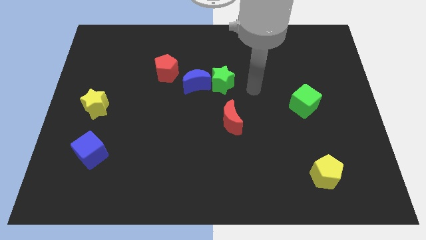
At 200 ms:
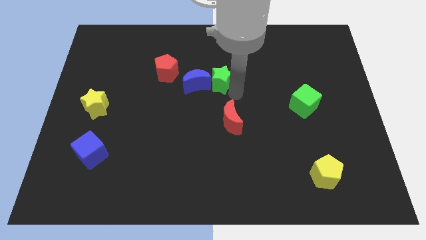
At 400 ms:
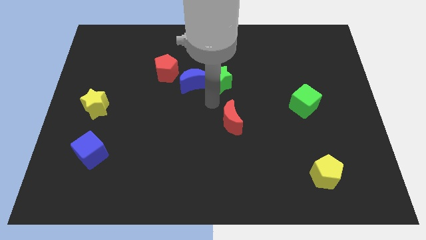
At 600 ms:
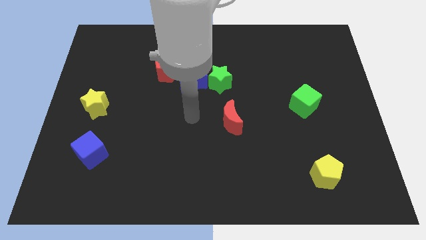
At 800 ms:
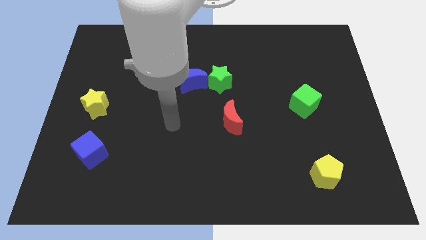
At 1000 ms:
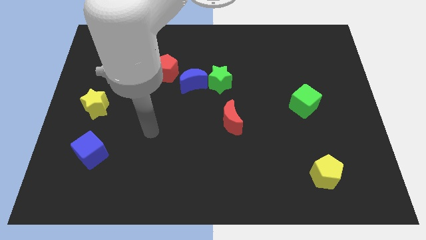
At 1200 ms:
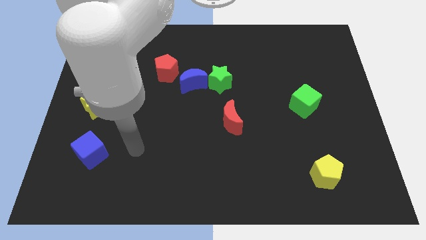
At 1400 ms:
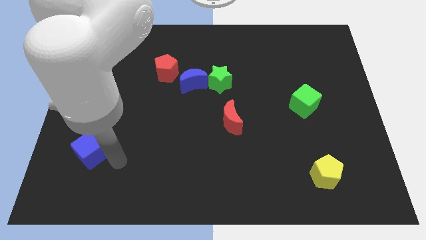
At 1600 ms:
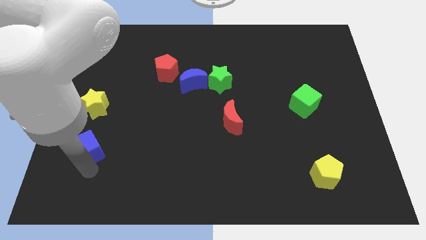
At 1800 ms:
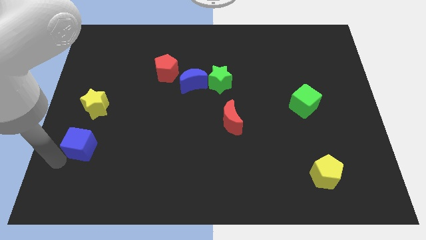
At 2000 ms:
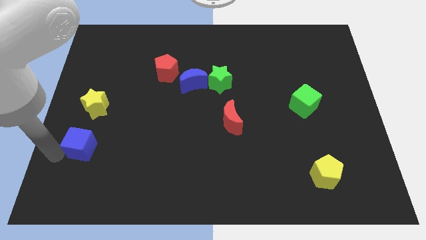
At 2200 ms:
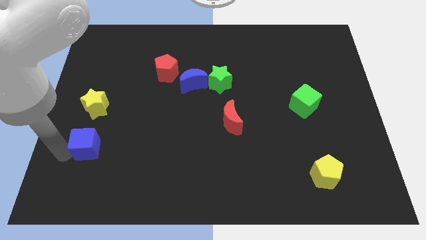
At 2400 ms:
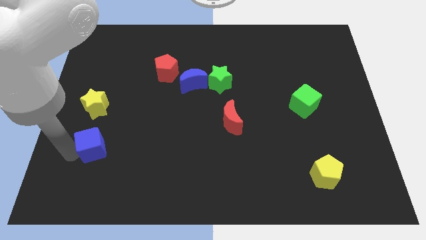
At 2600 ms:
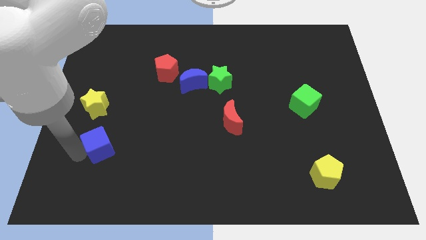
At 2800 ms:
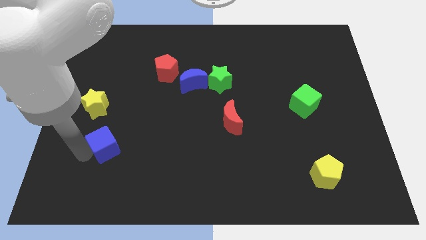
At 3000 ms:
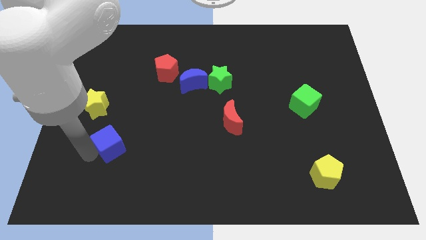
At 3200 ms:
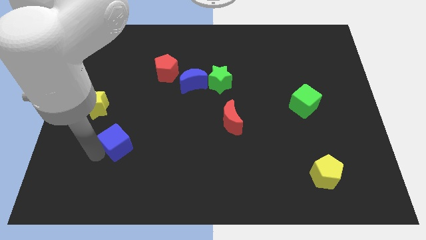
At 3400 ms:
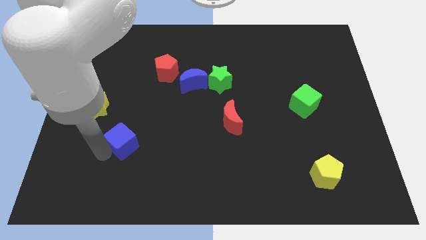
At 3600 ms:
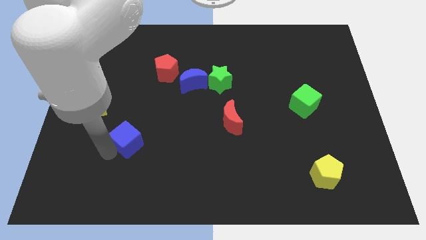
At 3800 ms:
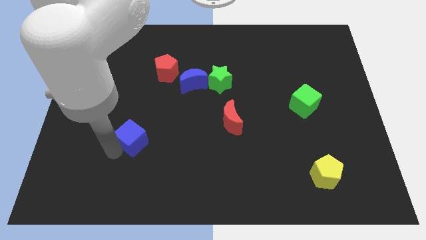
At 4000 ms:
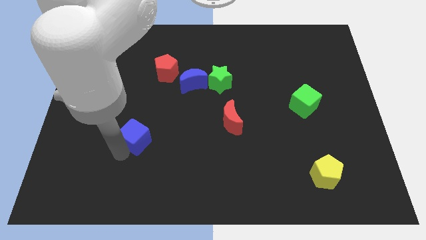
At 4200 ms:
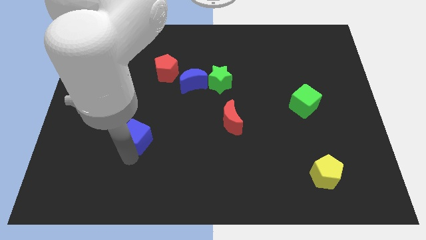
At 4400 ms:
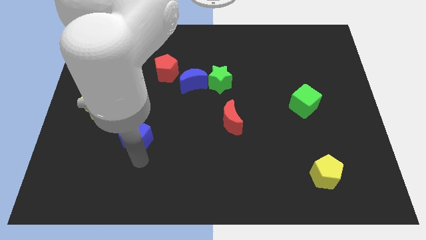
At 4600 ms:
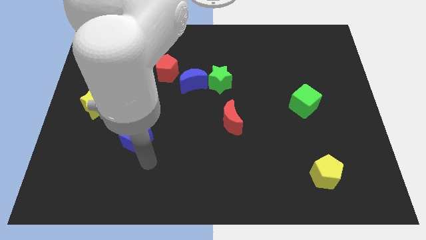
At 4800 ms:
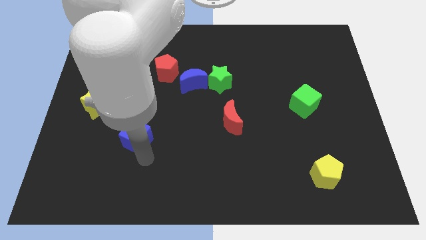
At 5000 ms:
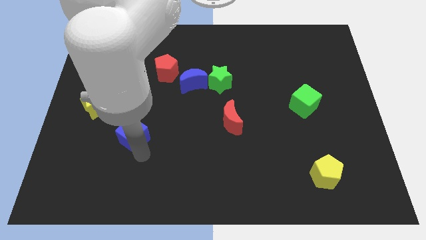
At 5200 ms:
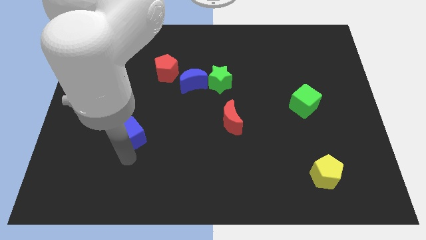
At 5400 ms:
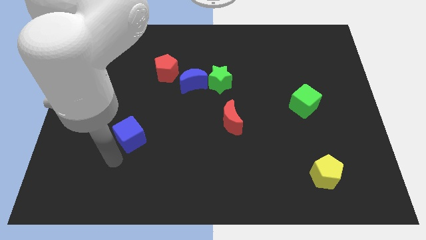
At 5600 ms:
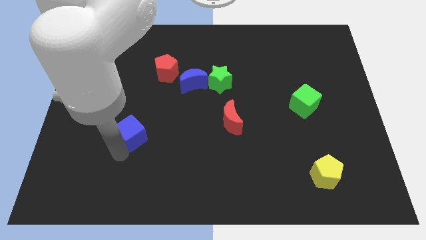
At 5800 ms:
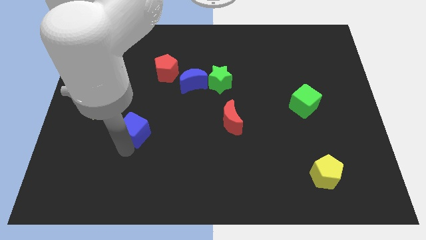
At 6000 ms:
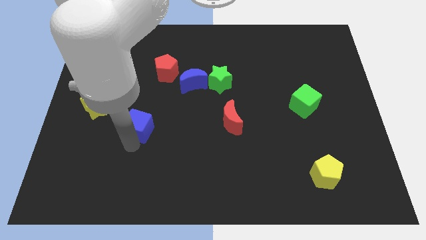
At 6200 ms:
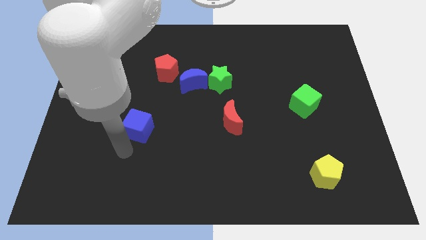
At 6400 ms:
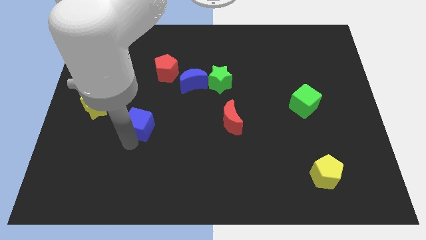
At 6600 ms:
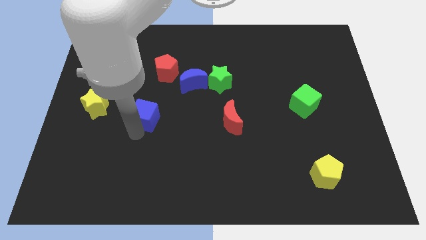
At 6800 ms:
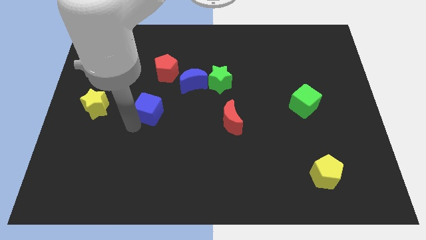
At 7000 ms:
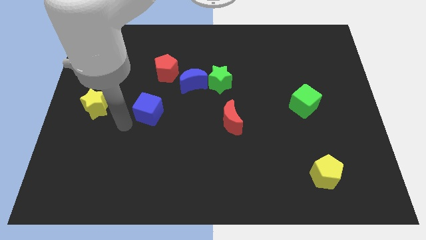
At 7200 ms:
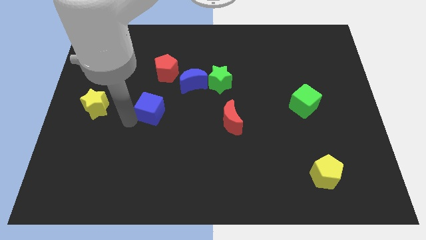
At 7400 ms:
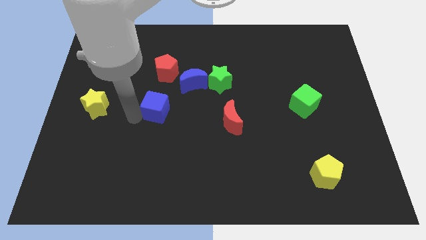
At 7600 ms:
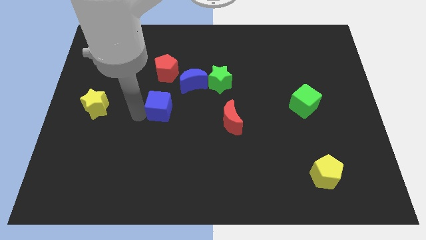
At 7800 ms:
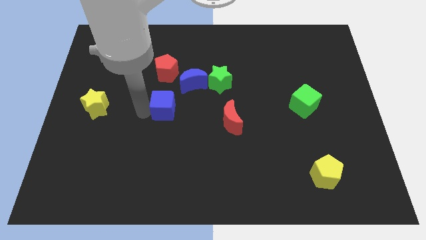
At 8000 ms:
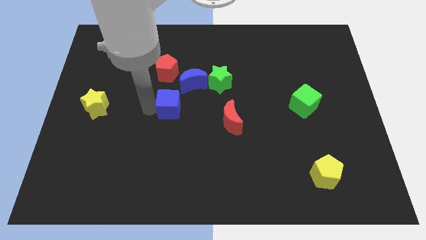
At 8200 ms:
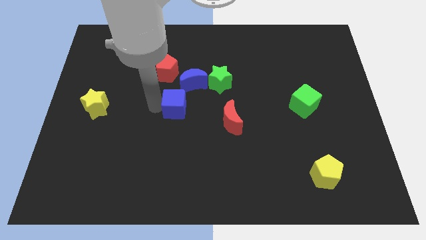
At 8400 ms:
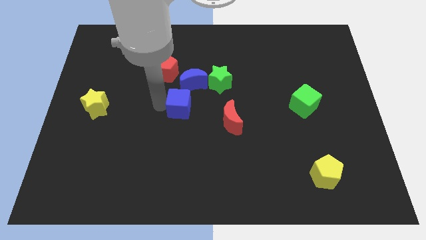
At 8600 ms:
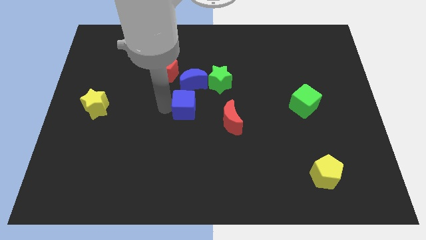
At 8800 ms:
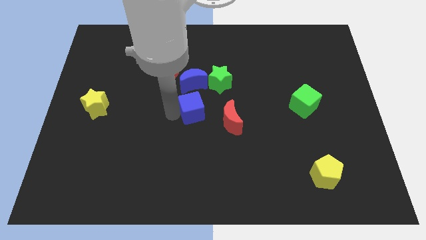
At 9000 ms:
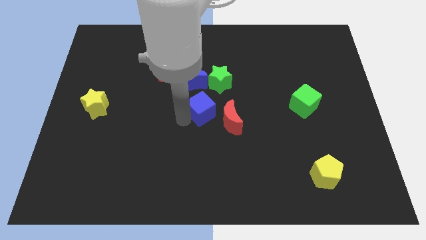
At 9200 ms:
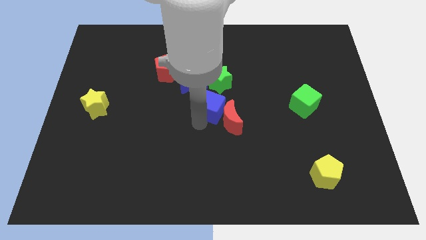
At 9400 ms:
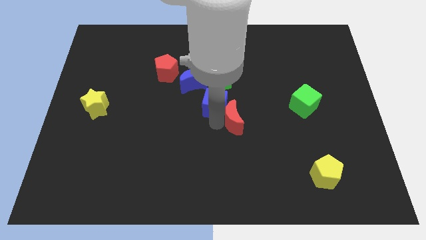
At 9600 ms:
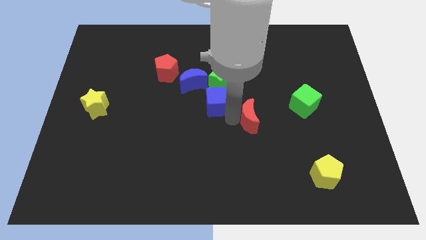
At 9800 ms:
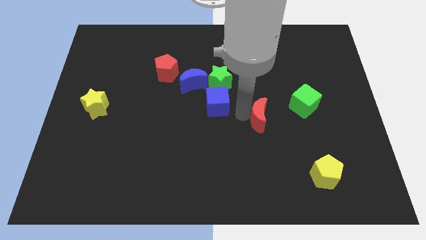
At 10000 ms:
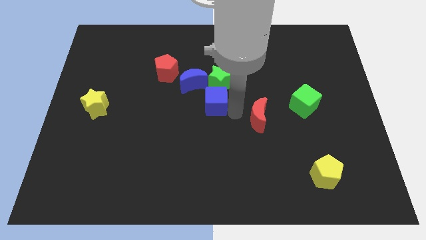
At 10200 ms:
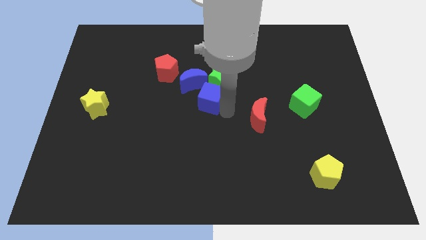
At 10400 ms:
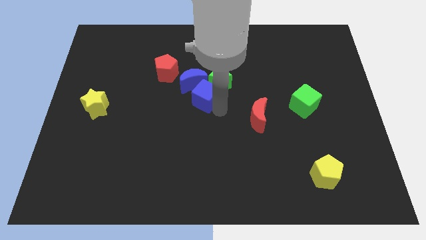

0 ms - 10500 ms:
push the blue cube close to the blue moon

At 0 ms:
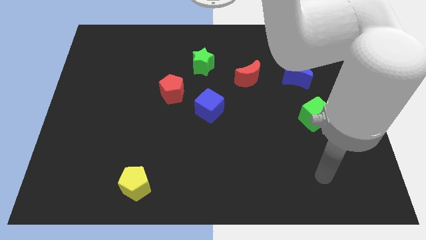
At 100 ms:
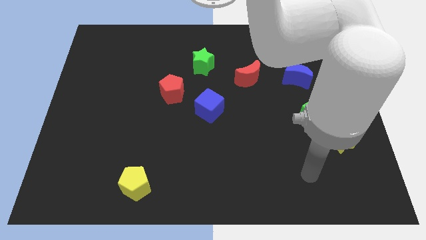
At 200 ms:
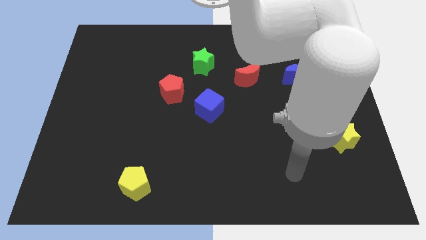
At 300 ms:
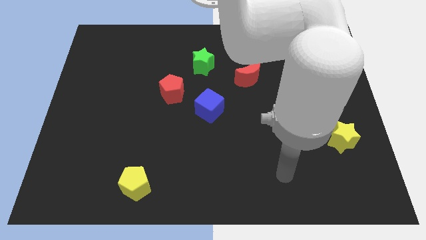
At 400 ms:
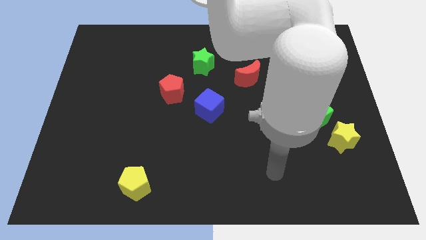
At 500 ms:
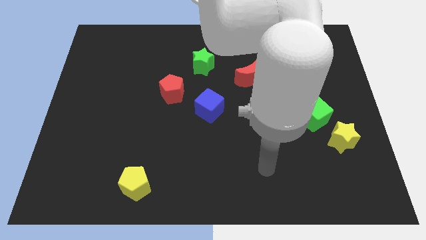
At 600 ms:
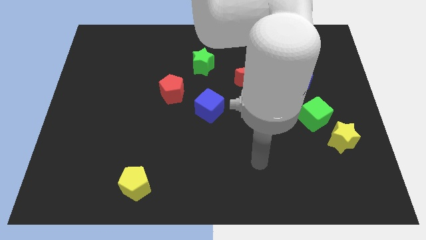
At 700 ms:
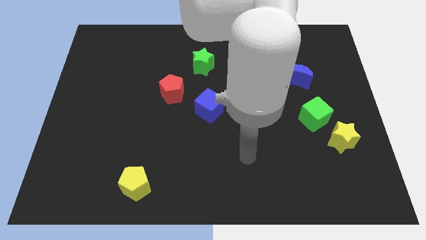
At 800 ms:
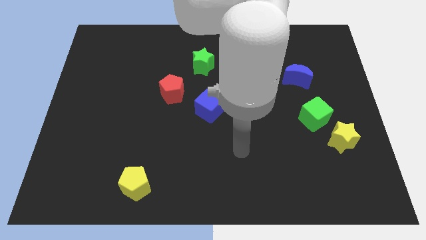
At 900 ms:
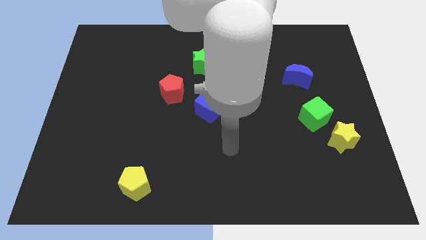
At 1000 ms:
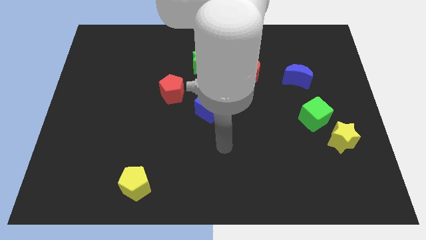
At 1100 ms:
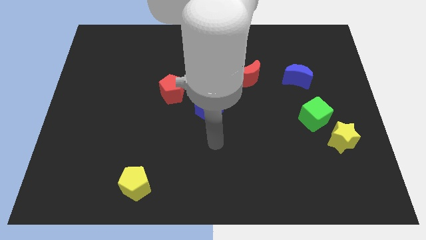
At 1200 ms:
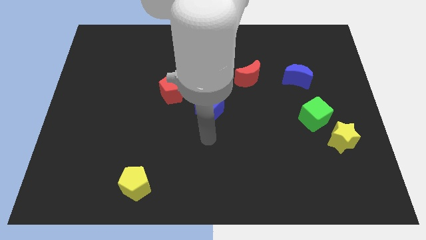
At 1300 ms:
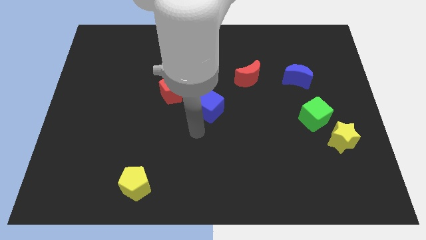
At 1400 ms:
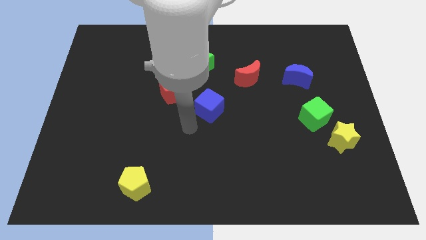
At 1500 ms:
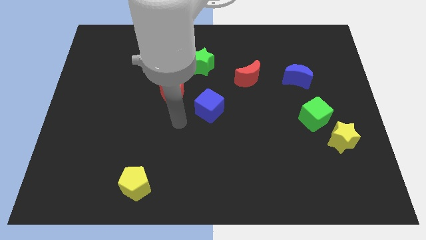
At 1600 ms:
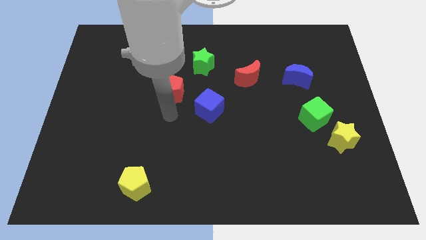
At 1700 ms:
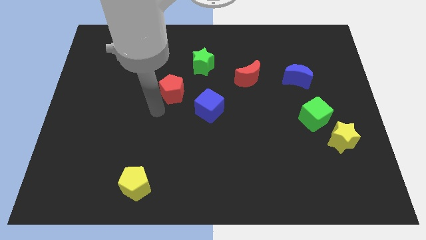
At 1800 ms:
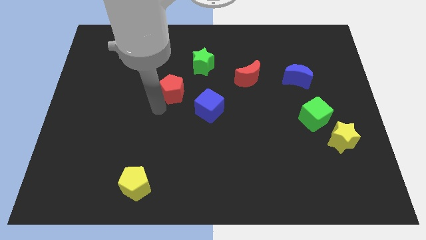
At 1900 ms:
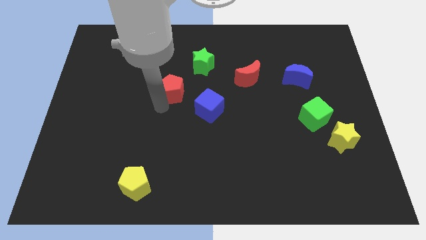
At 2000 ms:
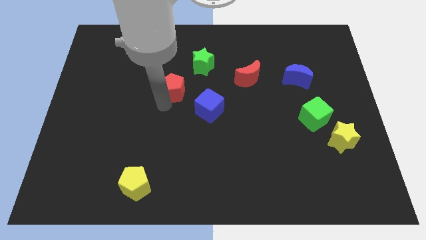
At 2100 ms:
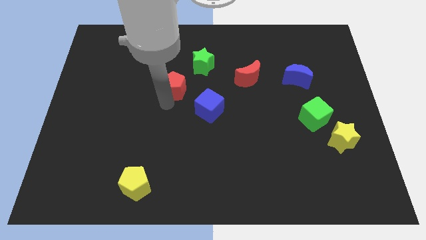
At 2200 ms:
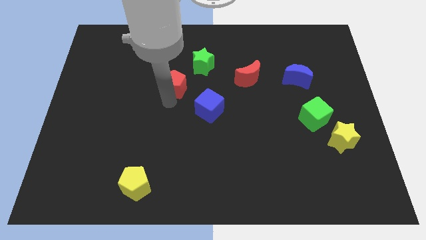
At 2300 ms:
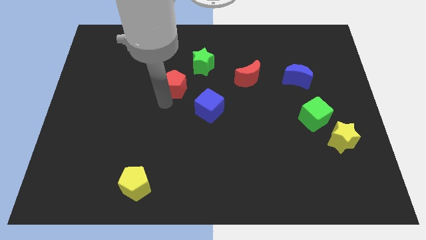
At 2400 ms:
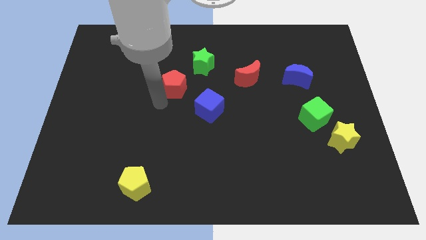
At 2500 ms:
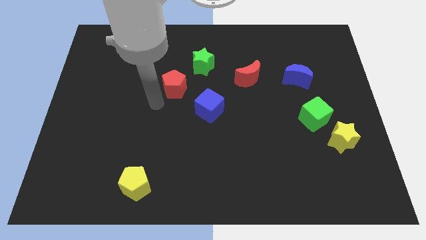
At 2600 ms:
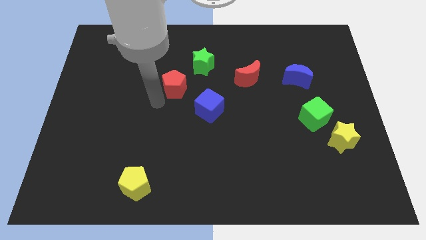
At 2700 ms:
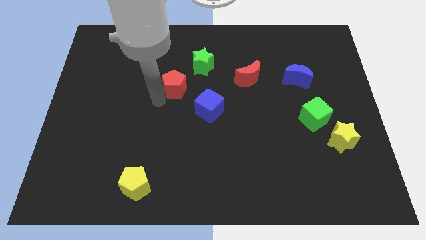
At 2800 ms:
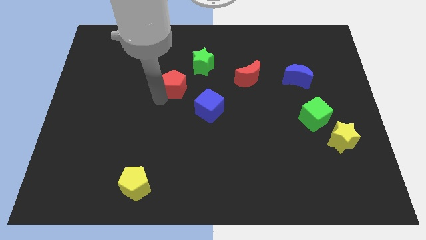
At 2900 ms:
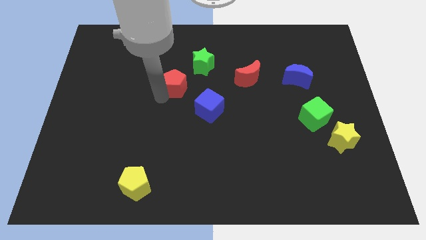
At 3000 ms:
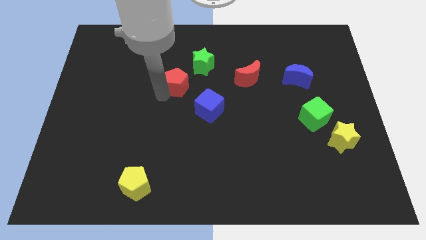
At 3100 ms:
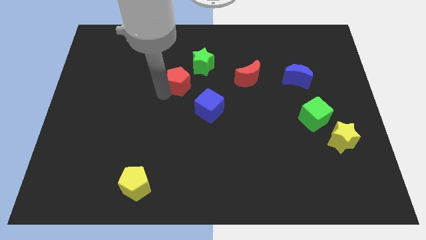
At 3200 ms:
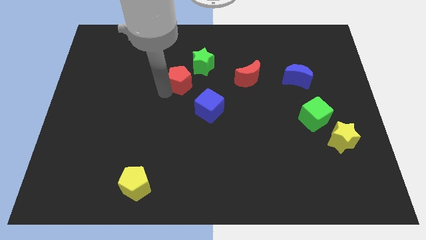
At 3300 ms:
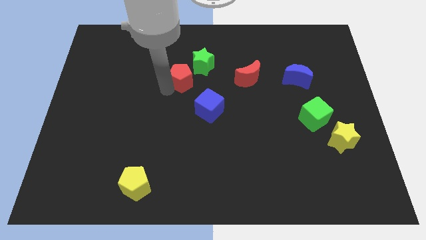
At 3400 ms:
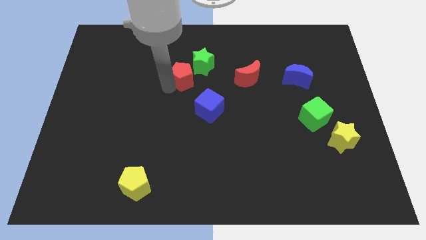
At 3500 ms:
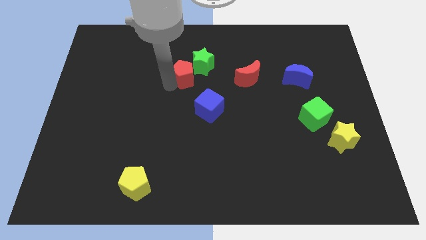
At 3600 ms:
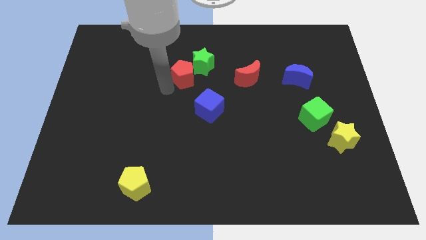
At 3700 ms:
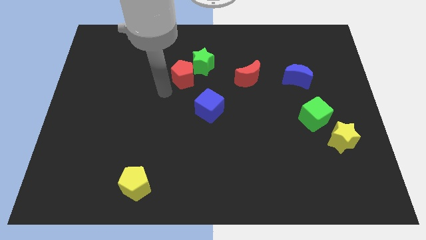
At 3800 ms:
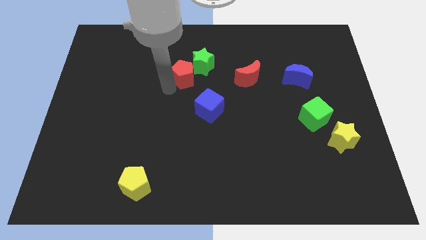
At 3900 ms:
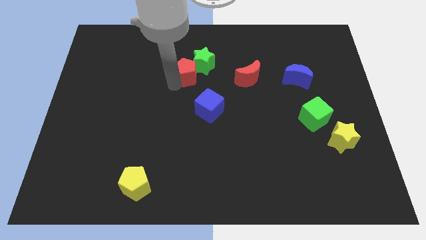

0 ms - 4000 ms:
move the red pentagon to the green star
